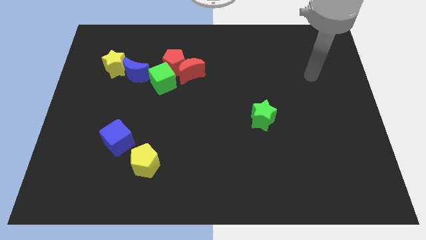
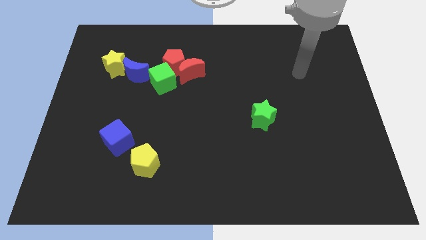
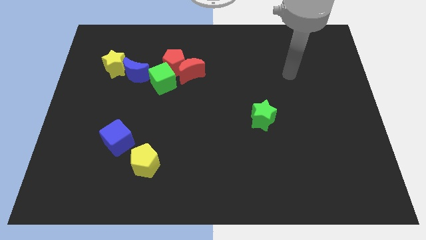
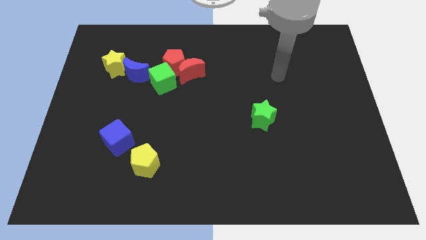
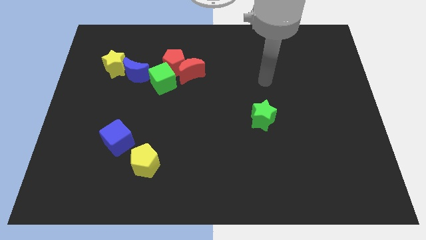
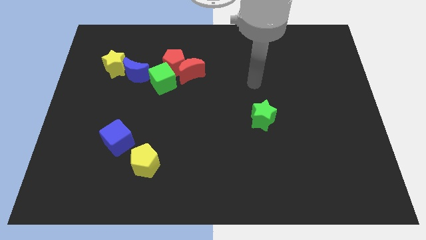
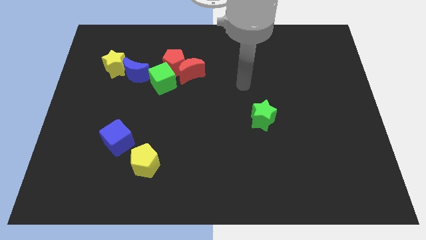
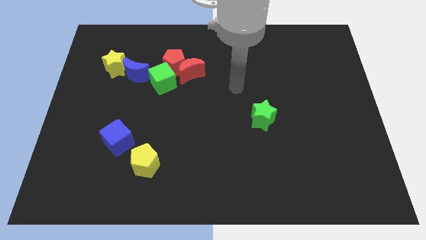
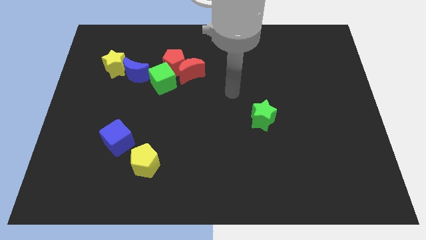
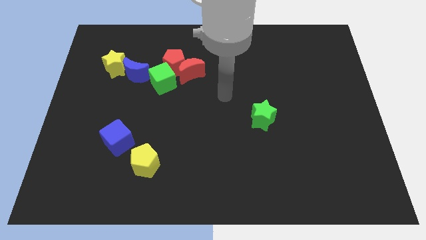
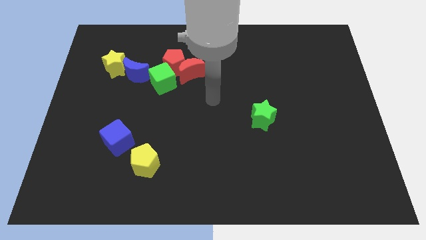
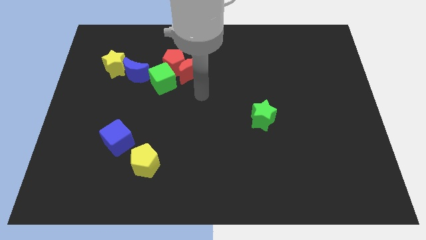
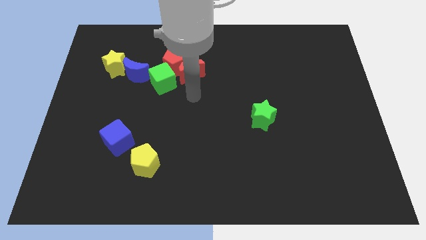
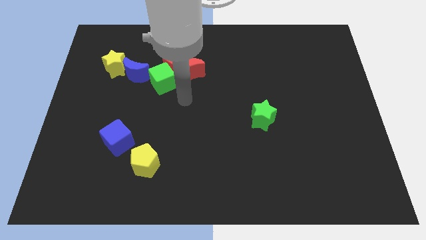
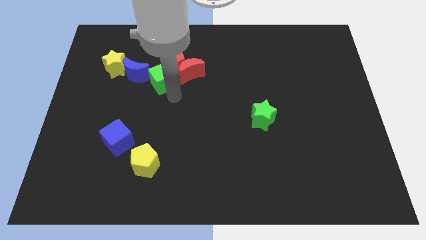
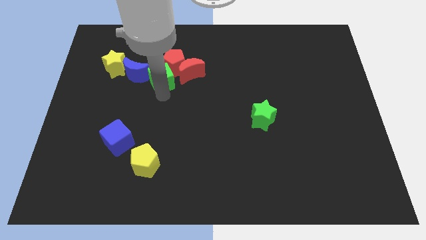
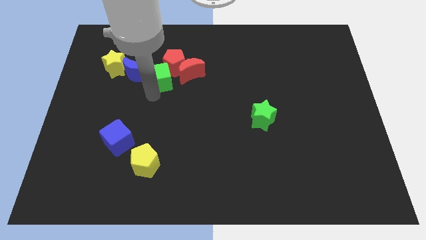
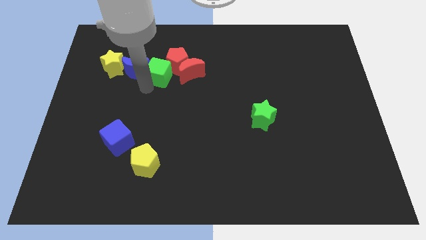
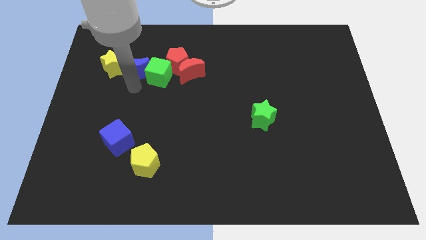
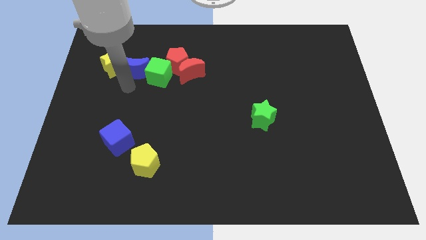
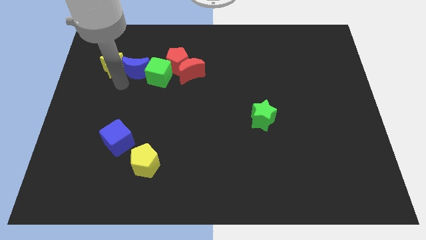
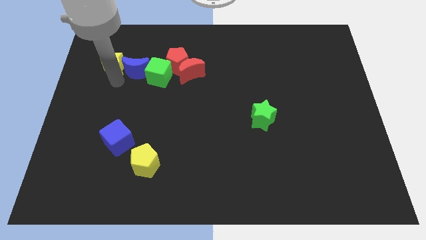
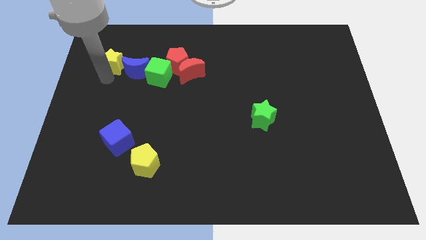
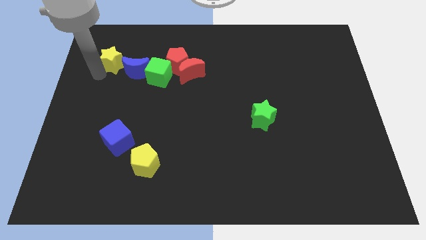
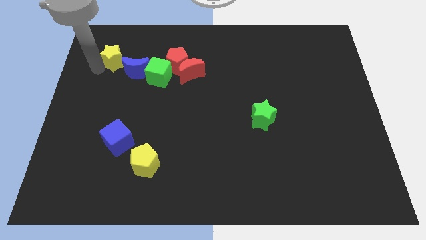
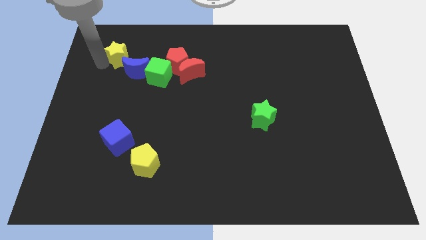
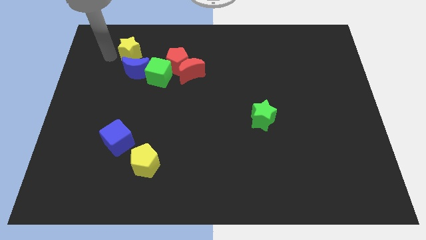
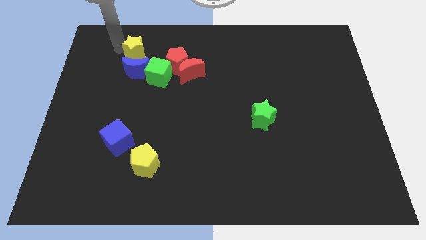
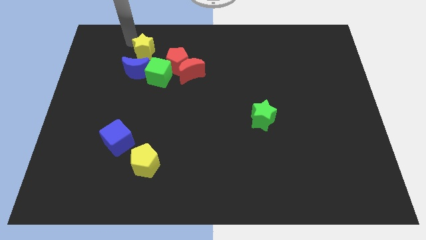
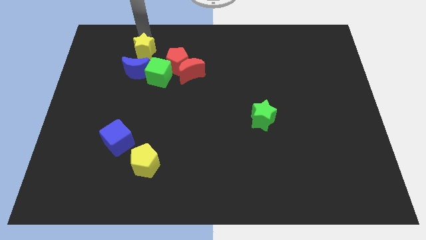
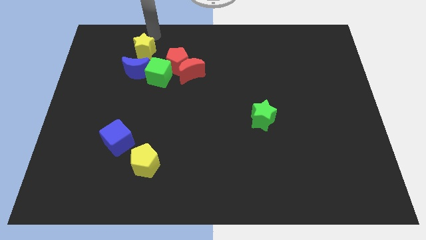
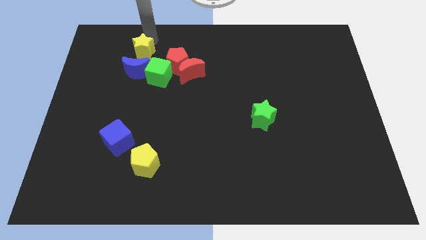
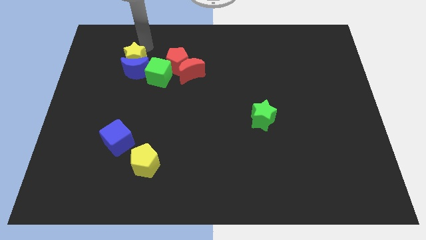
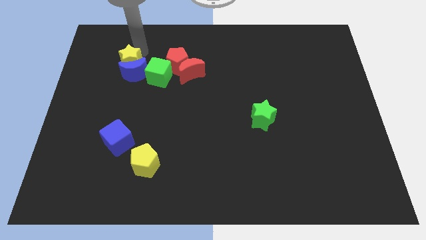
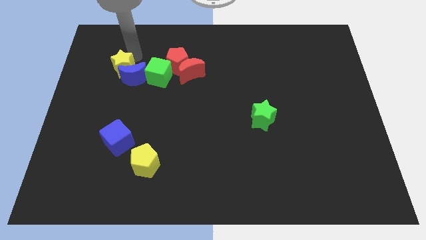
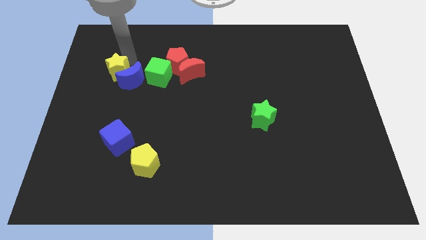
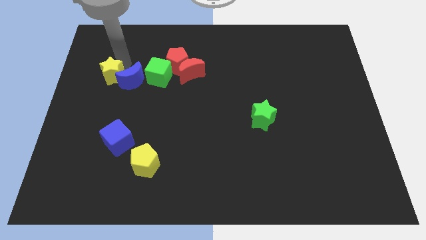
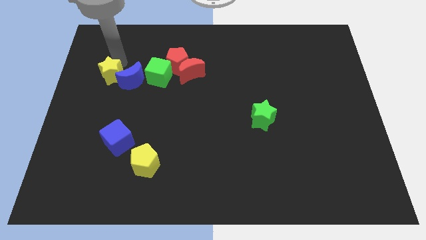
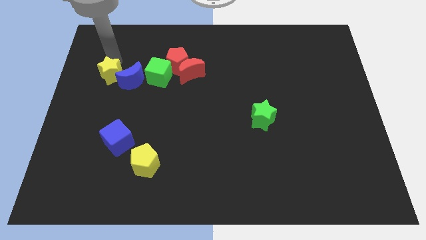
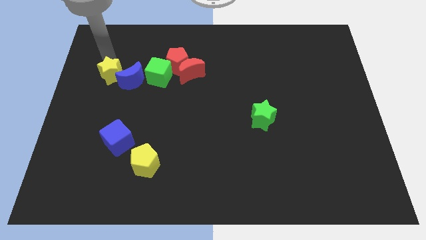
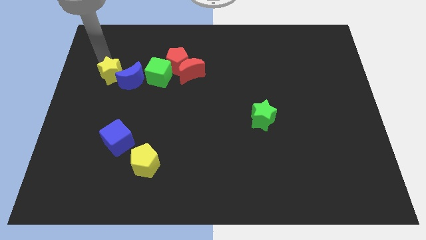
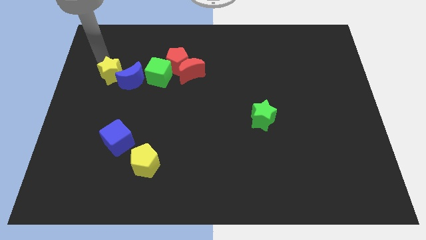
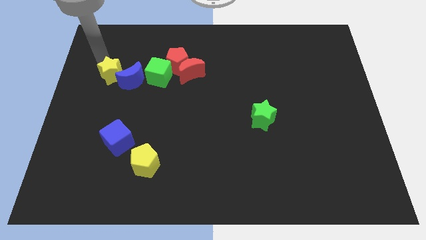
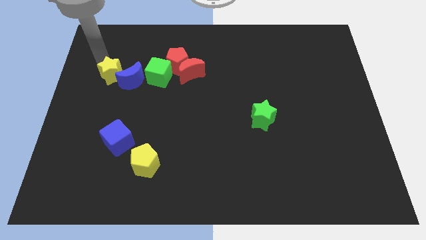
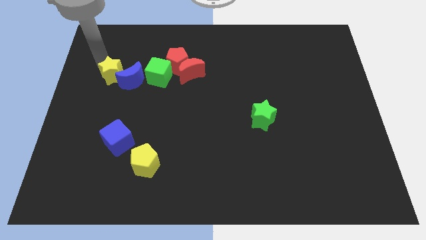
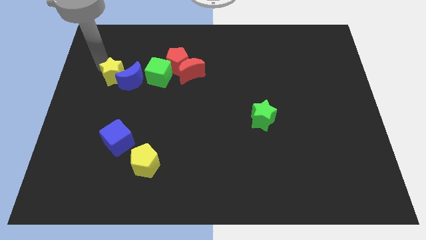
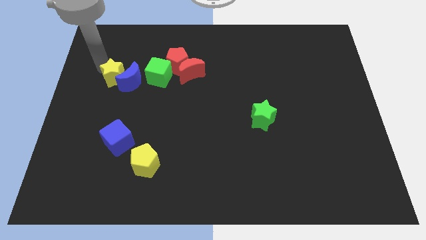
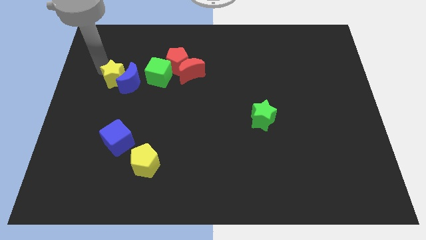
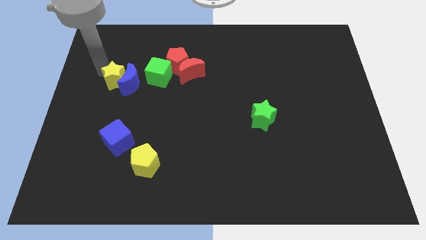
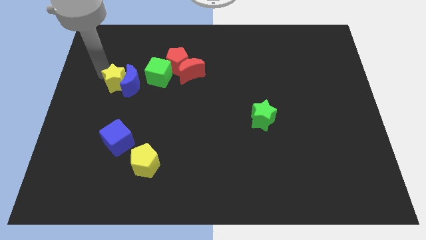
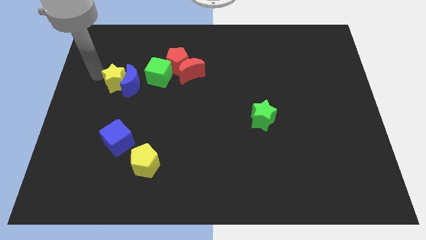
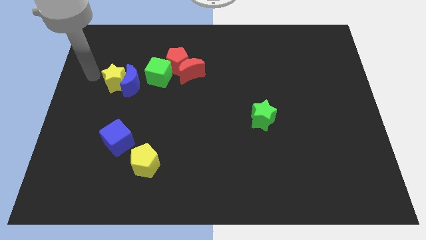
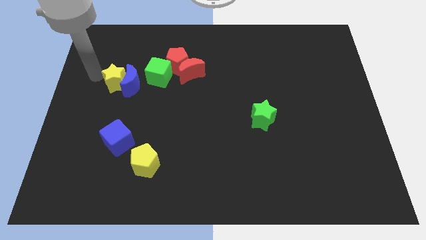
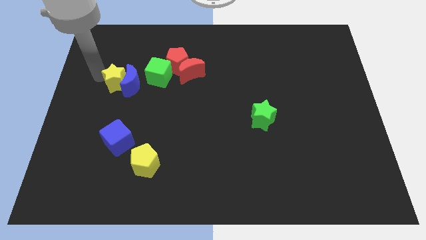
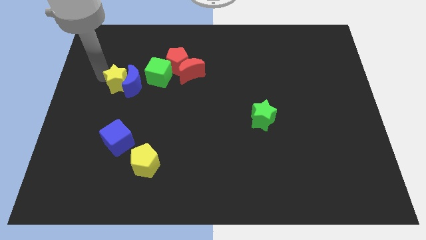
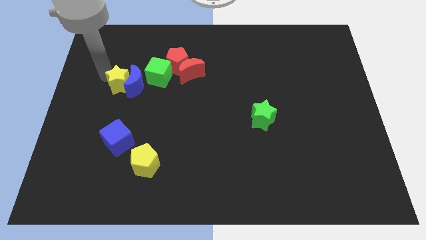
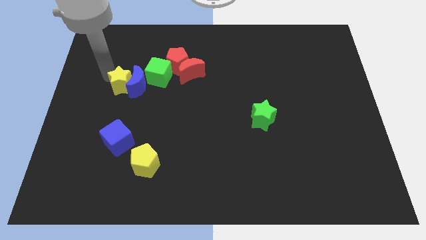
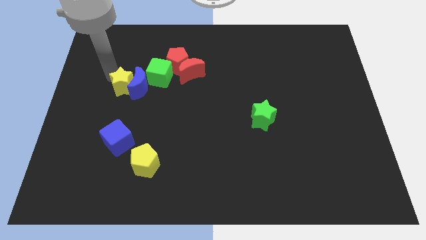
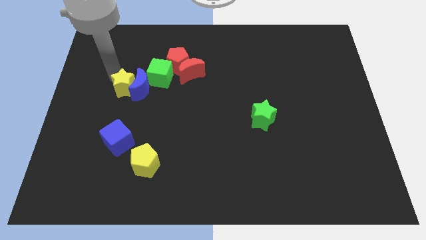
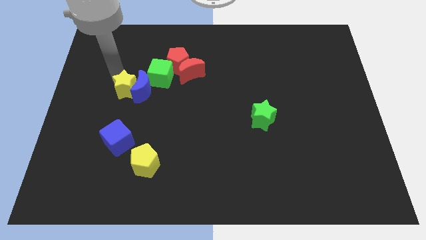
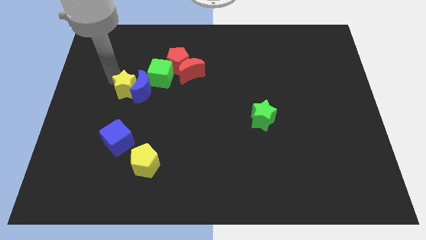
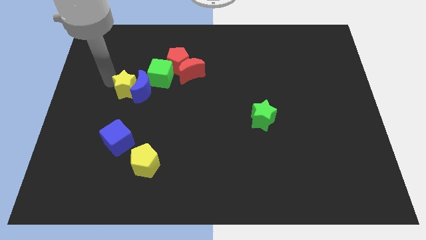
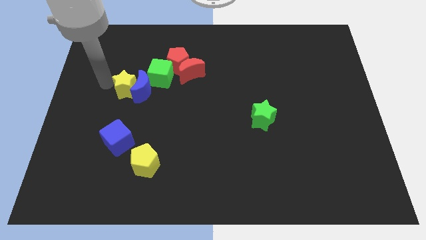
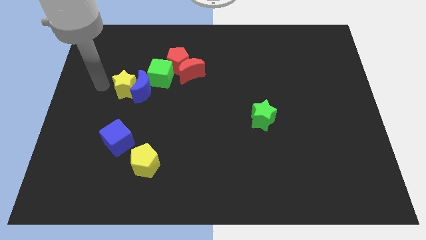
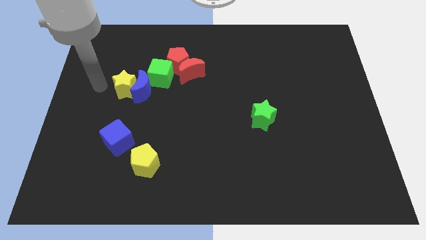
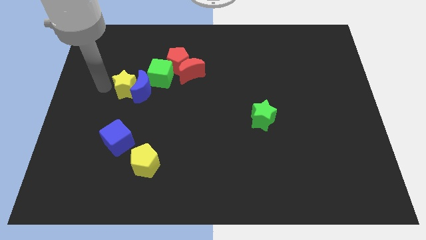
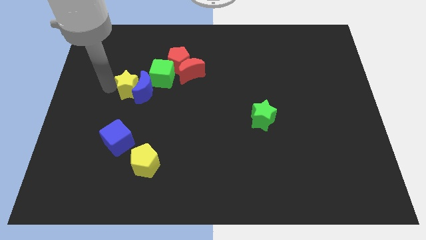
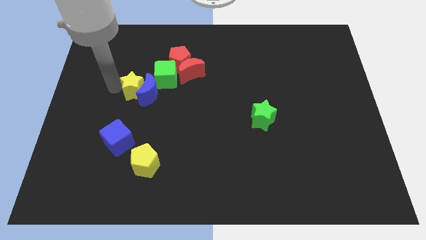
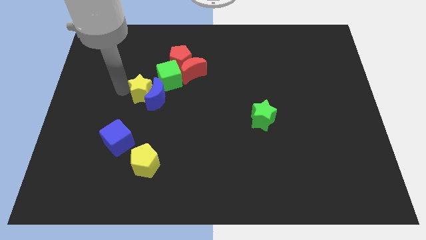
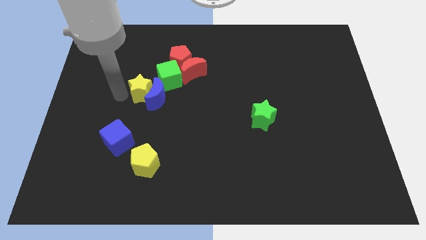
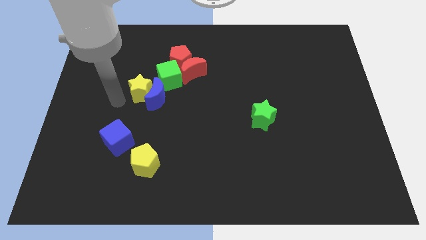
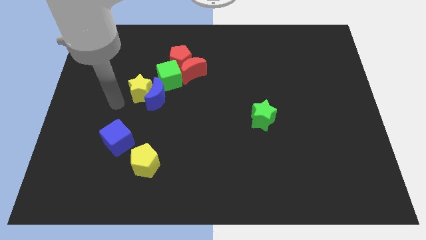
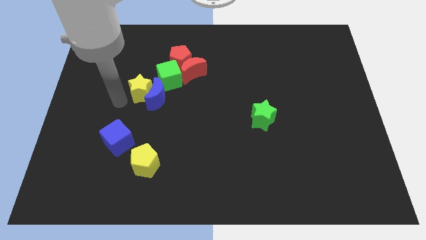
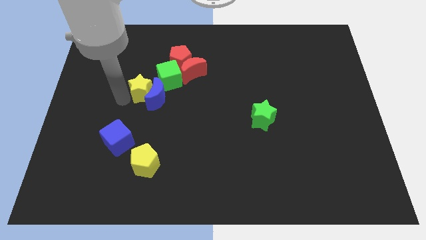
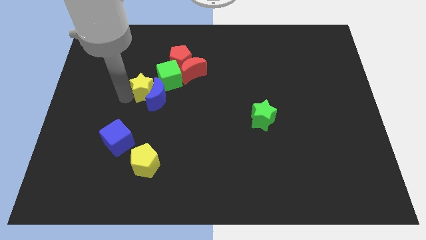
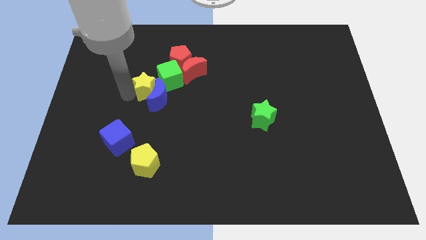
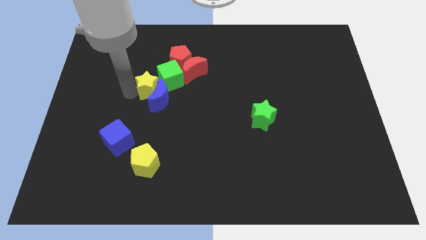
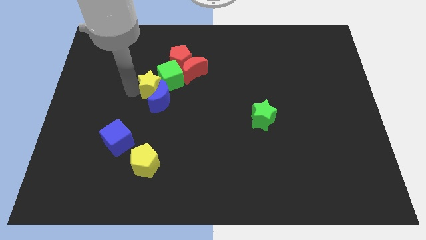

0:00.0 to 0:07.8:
push the yellow star next to the green cube
